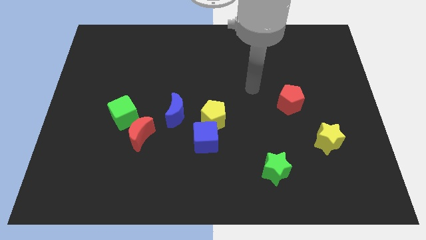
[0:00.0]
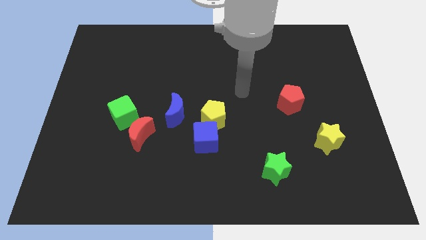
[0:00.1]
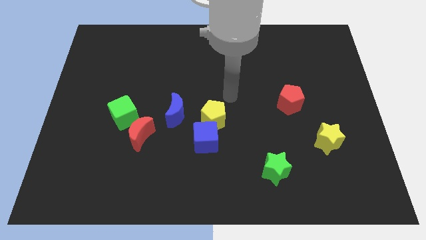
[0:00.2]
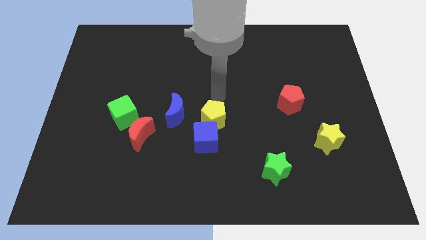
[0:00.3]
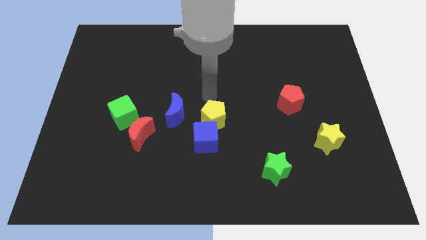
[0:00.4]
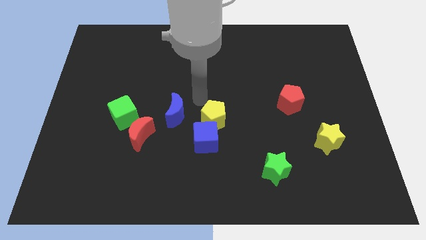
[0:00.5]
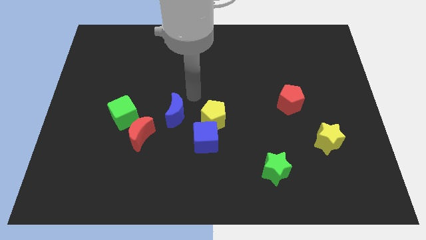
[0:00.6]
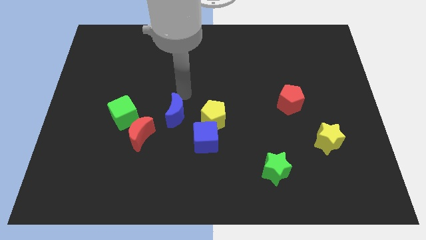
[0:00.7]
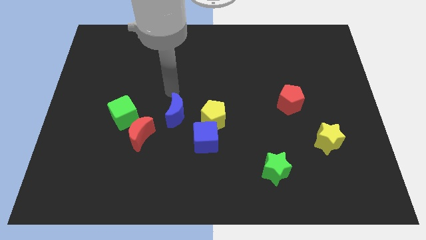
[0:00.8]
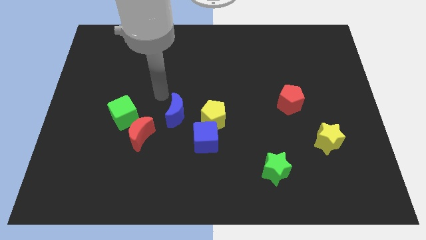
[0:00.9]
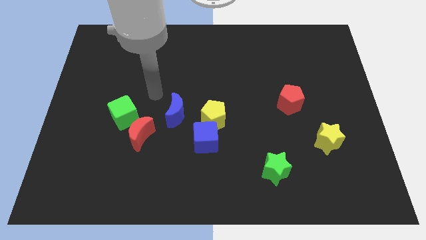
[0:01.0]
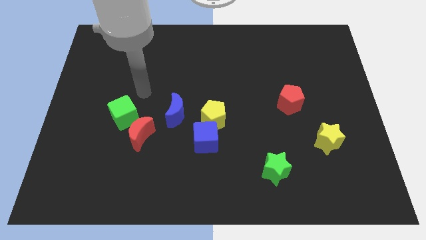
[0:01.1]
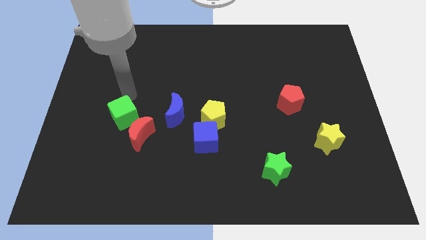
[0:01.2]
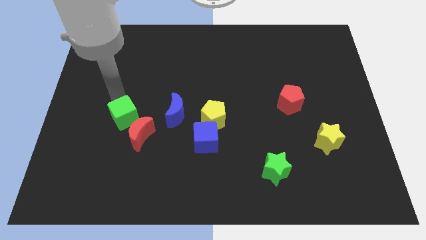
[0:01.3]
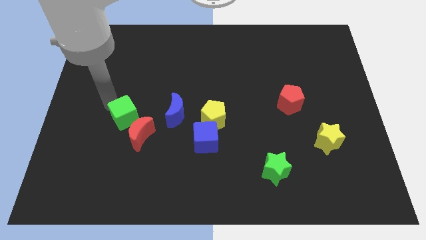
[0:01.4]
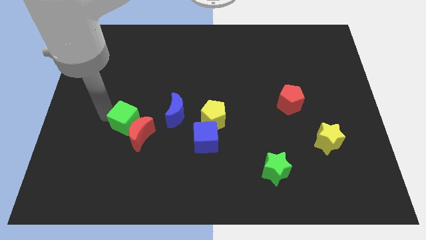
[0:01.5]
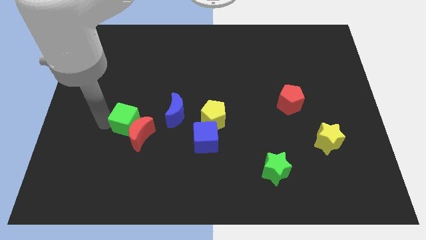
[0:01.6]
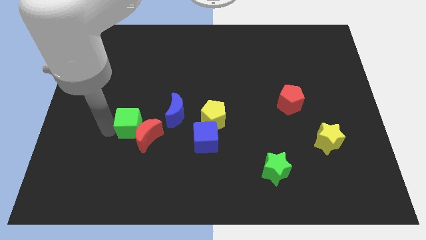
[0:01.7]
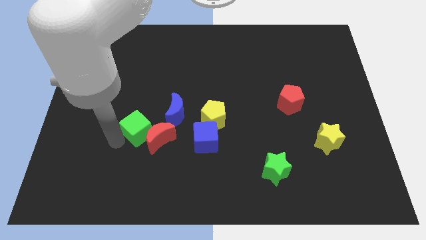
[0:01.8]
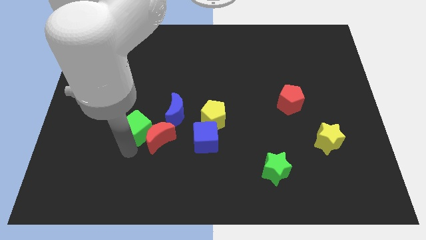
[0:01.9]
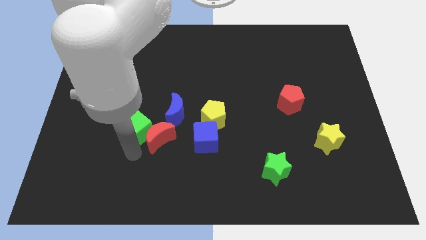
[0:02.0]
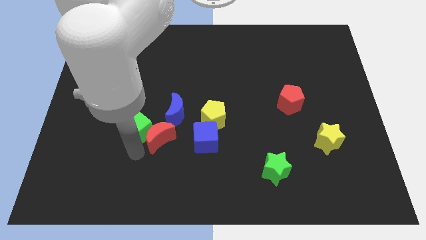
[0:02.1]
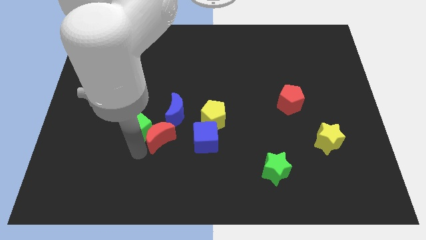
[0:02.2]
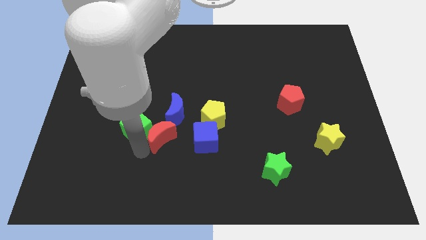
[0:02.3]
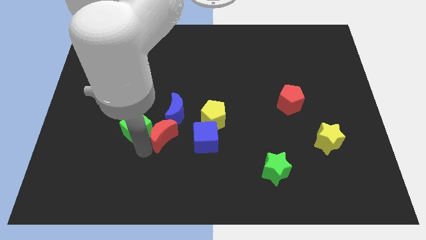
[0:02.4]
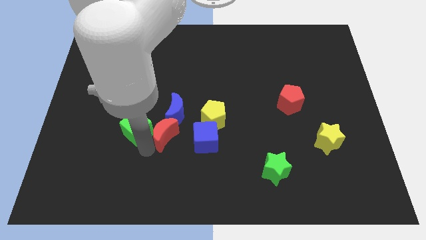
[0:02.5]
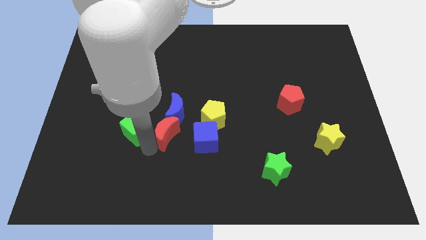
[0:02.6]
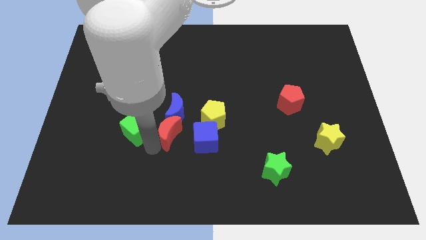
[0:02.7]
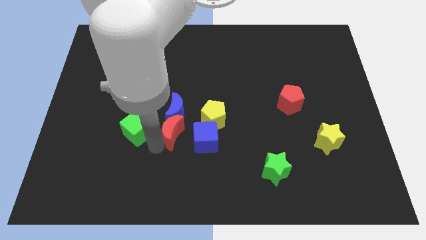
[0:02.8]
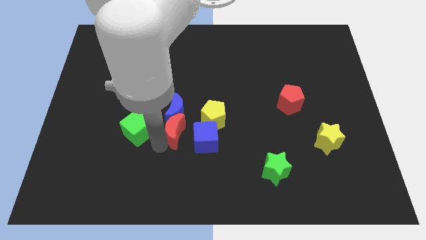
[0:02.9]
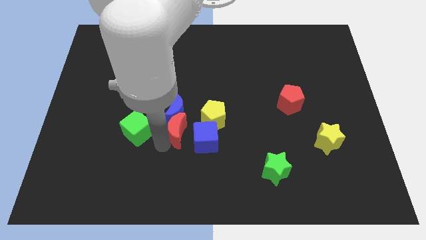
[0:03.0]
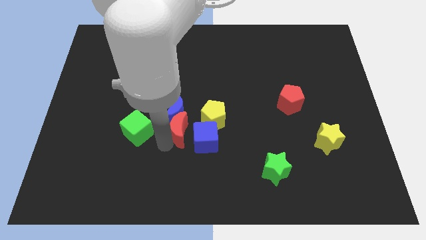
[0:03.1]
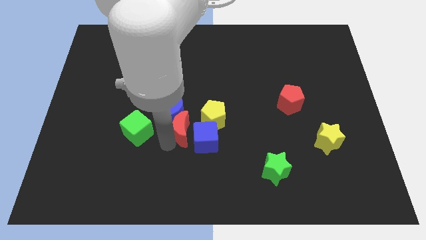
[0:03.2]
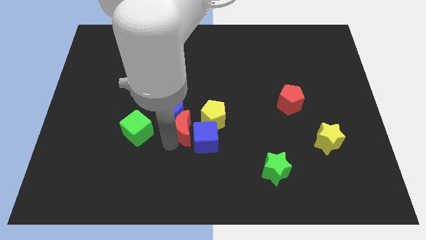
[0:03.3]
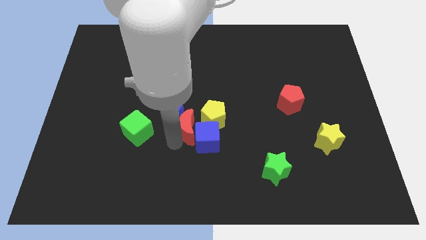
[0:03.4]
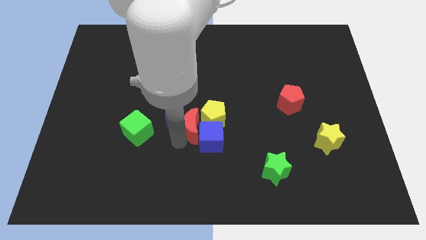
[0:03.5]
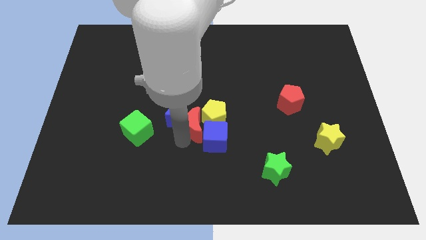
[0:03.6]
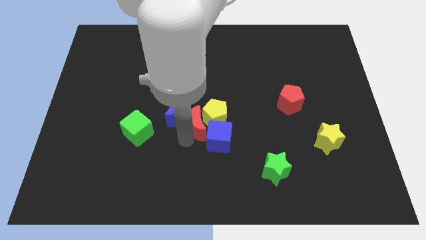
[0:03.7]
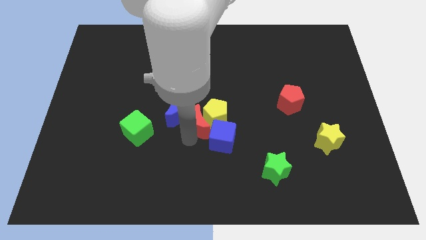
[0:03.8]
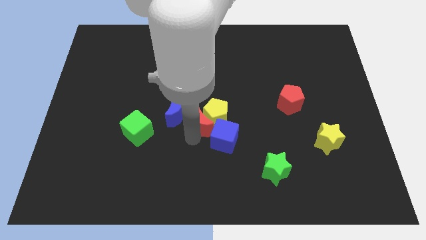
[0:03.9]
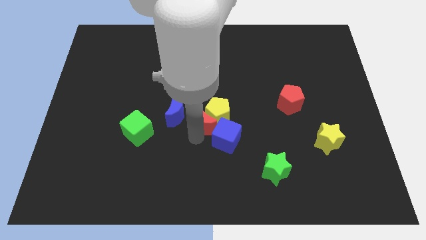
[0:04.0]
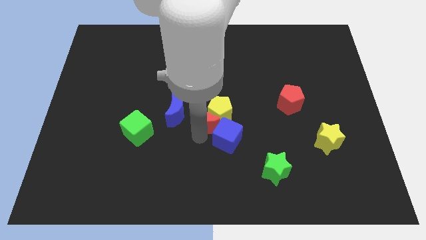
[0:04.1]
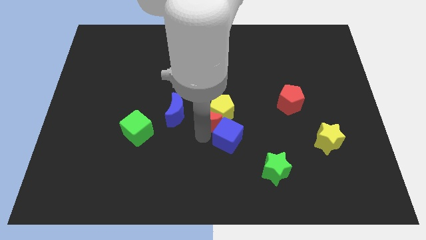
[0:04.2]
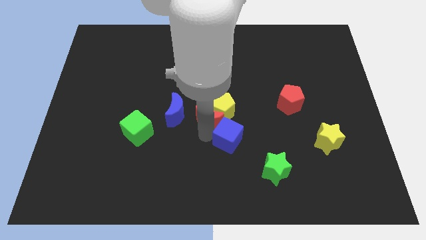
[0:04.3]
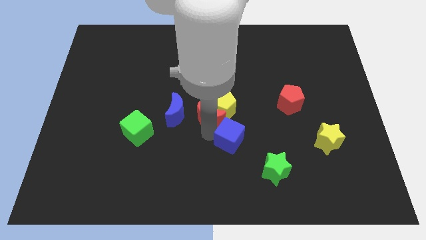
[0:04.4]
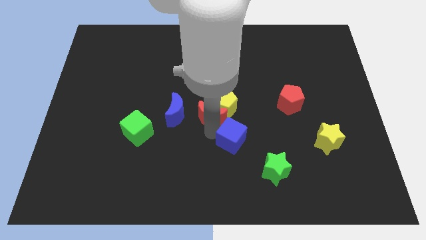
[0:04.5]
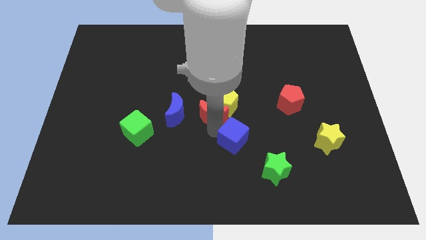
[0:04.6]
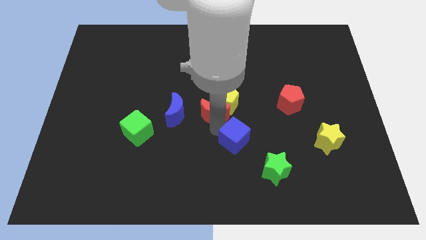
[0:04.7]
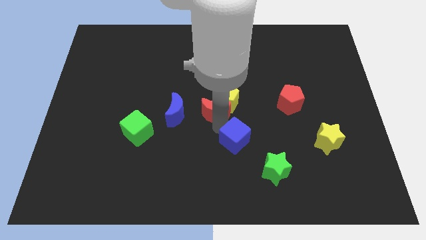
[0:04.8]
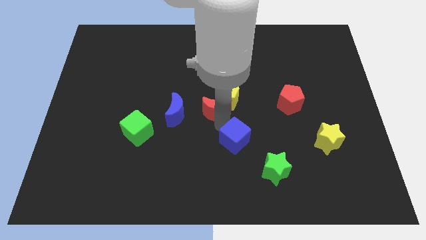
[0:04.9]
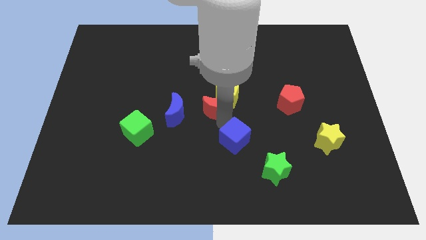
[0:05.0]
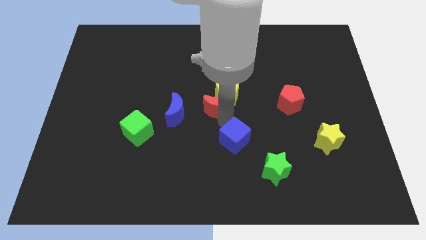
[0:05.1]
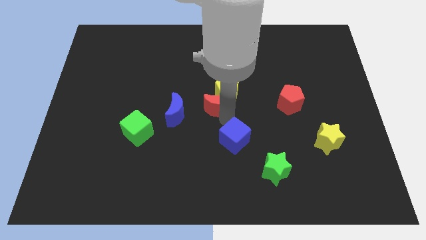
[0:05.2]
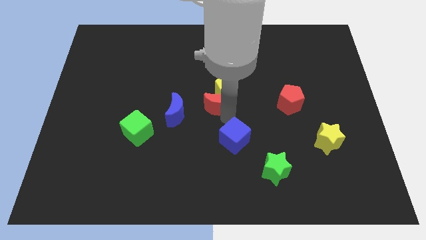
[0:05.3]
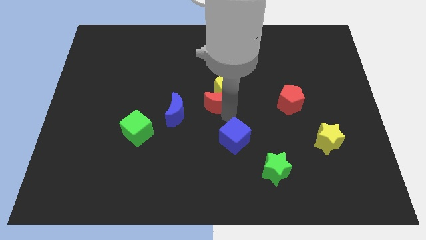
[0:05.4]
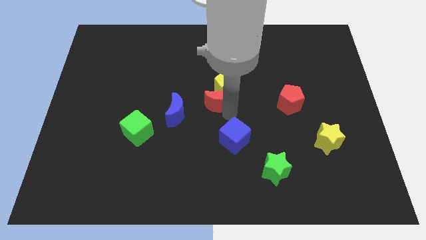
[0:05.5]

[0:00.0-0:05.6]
move the red moon to the left of the red pentagon

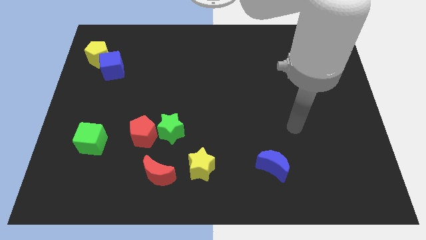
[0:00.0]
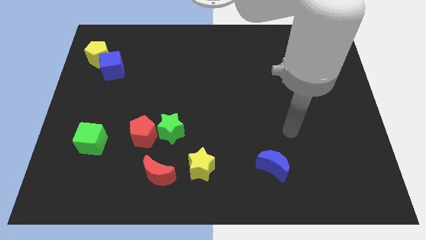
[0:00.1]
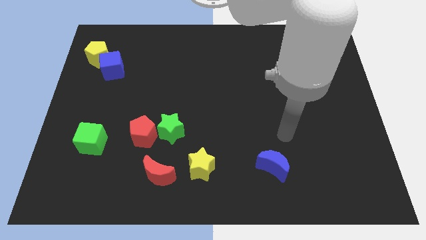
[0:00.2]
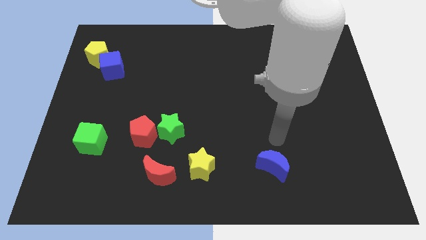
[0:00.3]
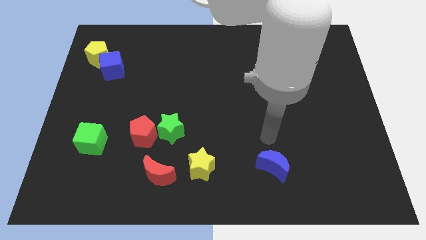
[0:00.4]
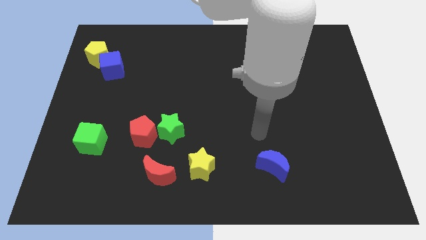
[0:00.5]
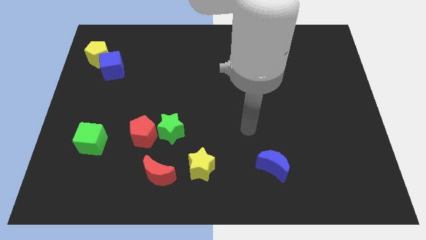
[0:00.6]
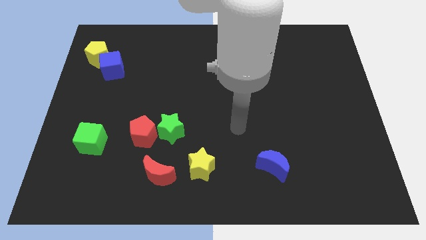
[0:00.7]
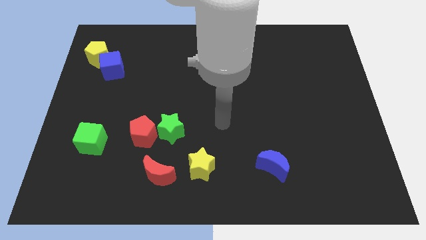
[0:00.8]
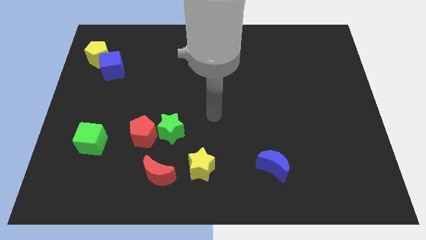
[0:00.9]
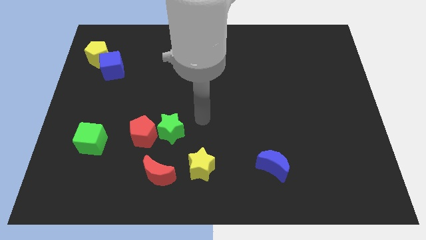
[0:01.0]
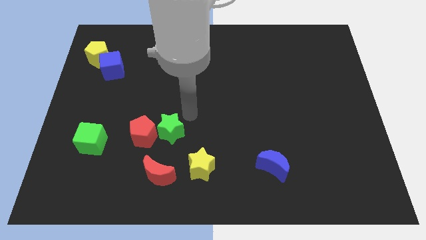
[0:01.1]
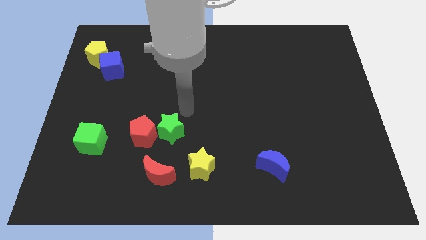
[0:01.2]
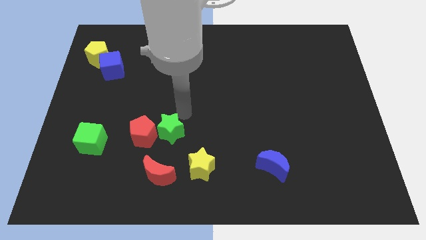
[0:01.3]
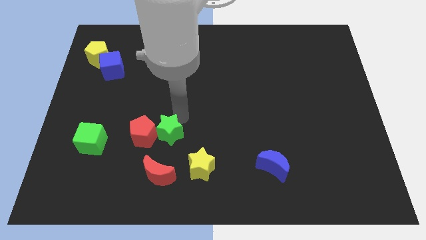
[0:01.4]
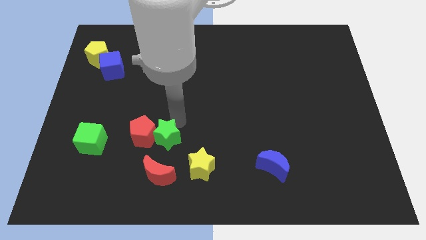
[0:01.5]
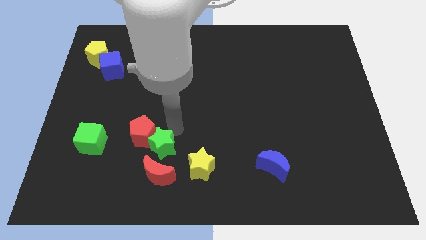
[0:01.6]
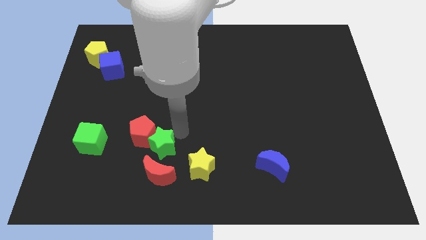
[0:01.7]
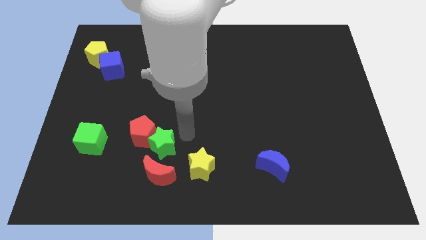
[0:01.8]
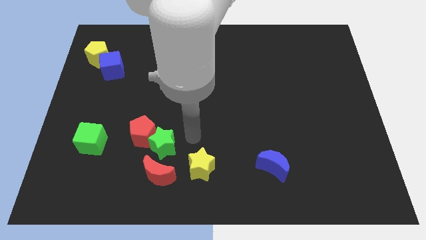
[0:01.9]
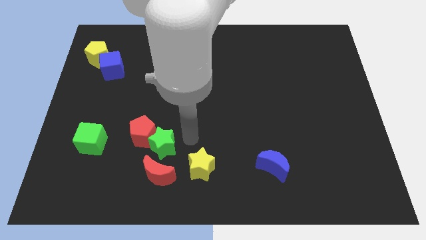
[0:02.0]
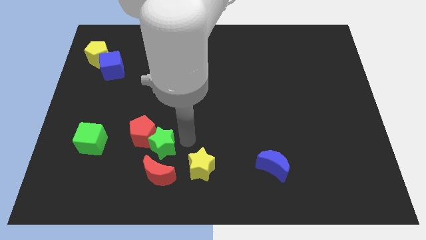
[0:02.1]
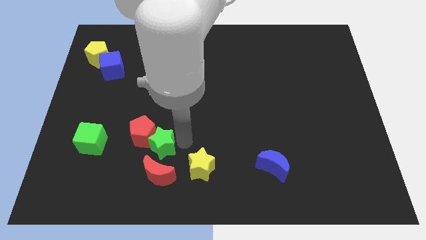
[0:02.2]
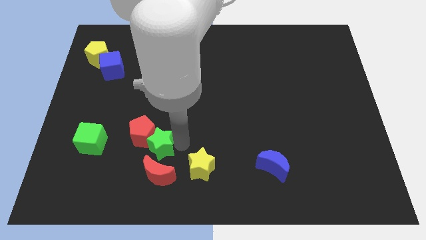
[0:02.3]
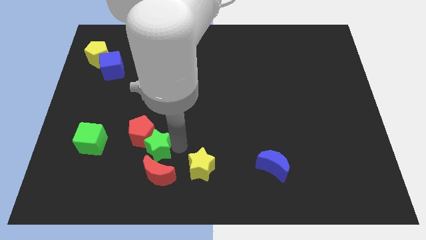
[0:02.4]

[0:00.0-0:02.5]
put the green star diagonally up and to the left of the red moon

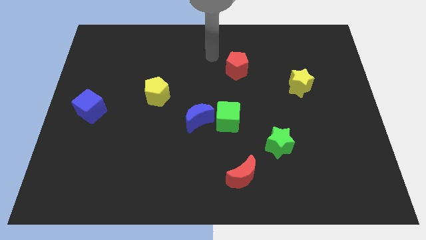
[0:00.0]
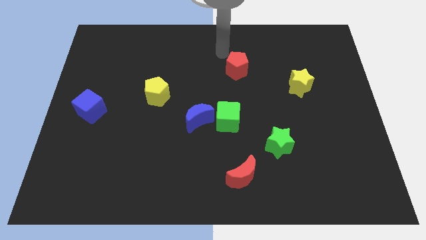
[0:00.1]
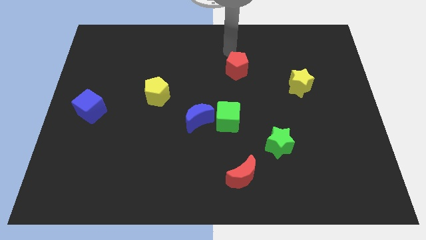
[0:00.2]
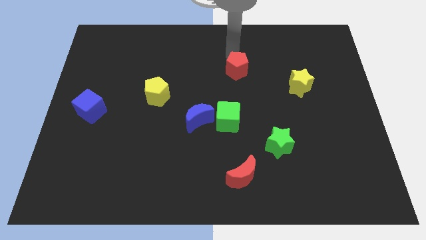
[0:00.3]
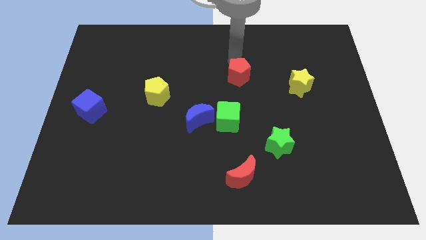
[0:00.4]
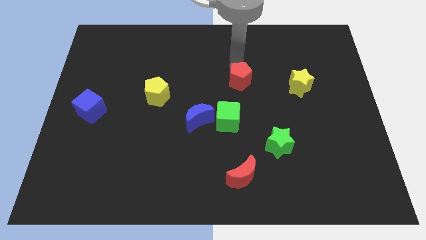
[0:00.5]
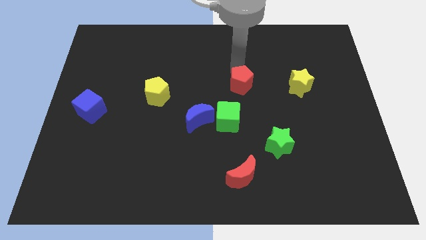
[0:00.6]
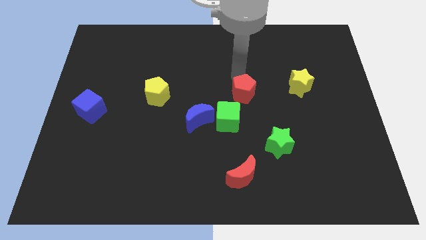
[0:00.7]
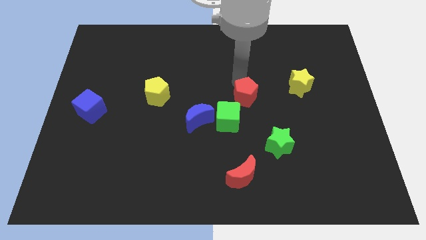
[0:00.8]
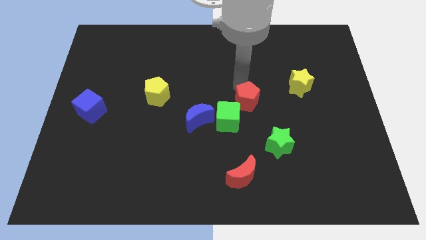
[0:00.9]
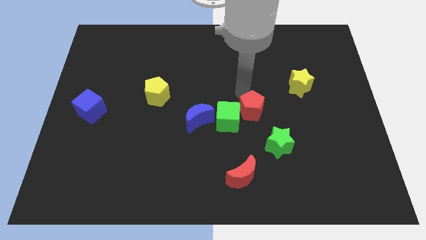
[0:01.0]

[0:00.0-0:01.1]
move the red pentagon right of the green cube
